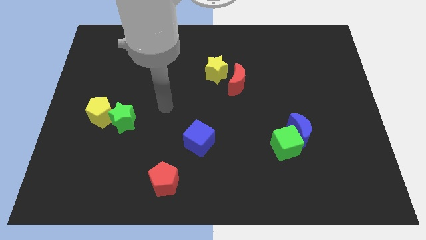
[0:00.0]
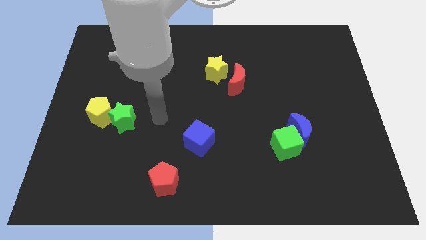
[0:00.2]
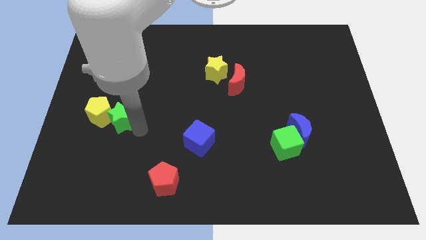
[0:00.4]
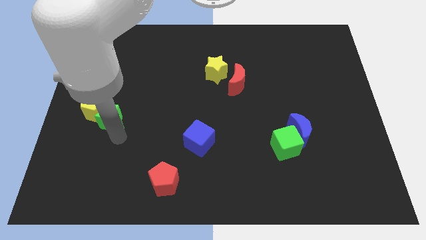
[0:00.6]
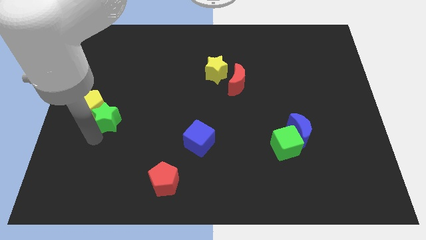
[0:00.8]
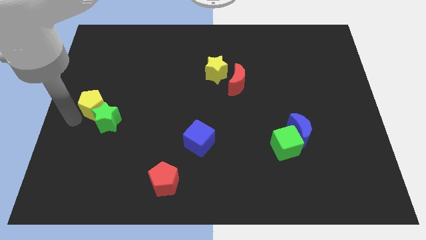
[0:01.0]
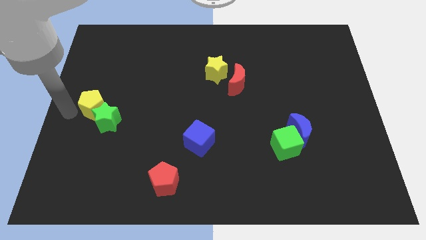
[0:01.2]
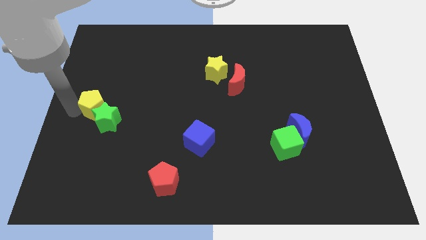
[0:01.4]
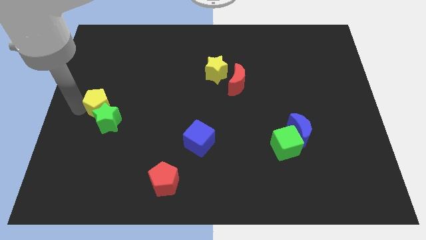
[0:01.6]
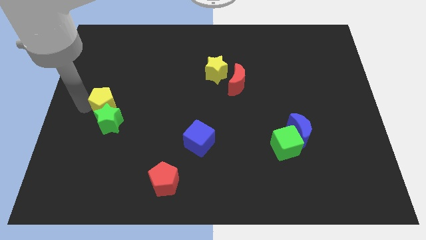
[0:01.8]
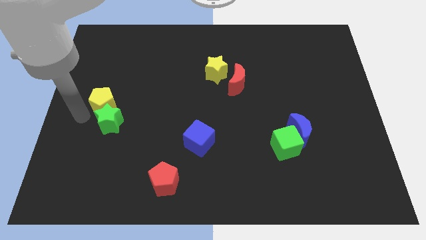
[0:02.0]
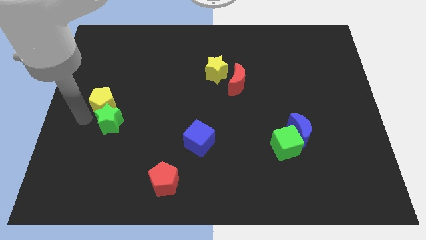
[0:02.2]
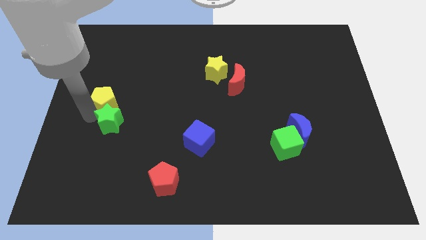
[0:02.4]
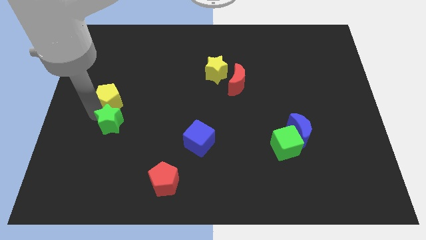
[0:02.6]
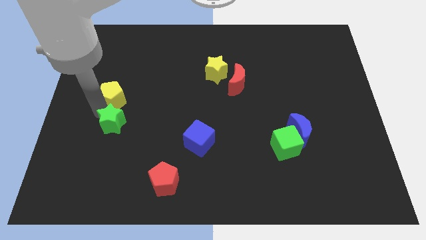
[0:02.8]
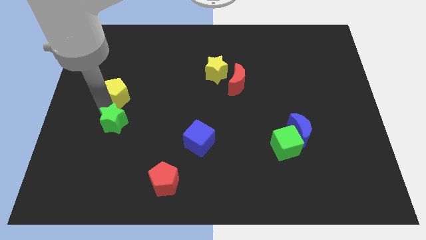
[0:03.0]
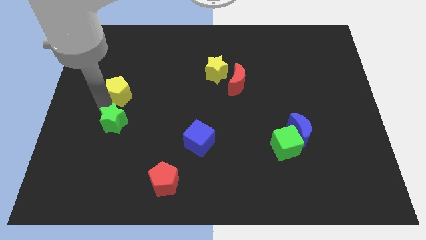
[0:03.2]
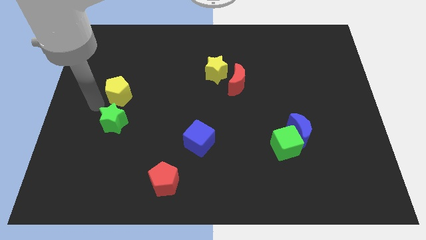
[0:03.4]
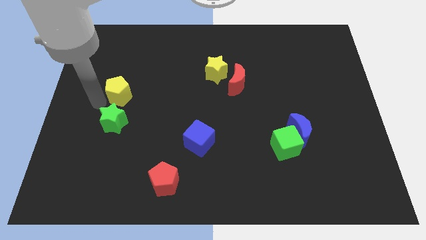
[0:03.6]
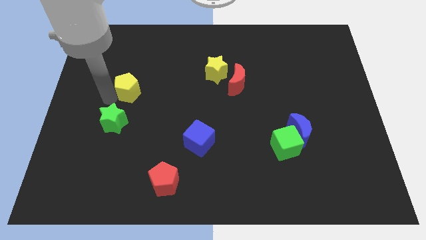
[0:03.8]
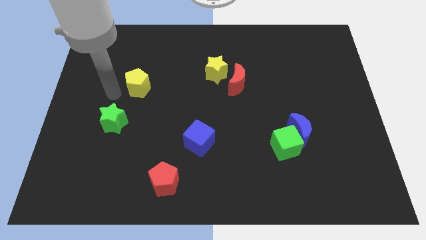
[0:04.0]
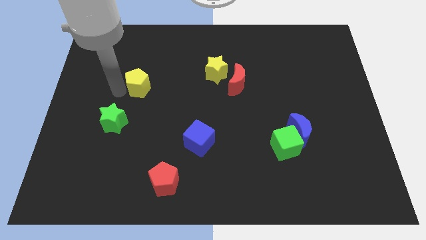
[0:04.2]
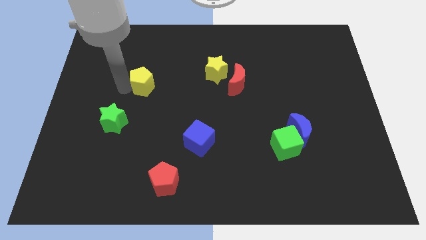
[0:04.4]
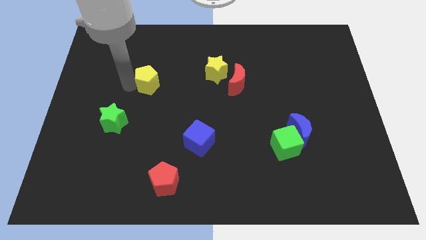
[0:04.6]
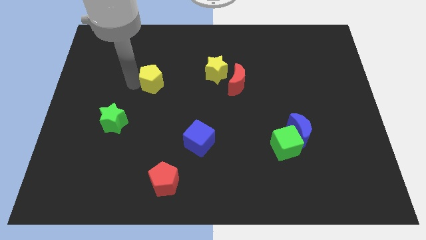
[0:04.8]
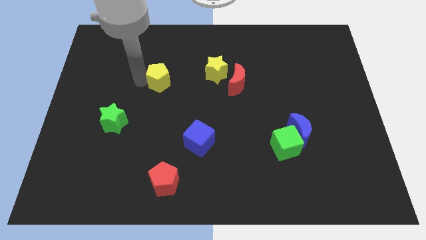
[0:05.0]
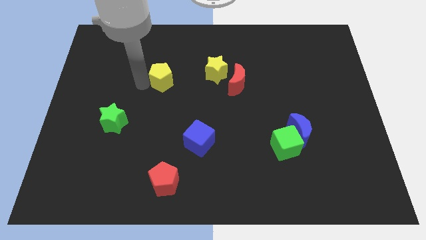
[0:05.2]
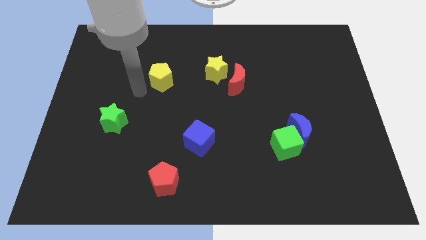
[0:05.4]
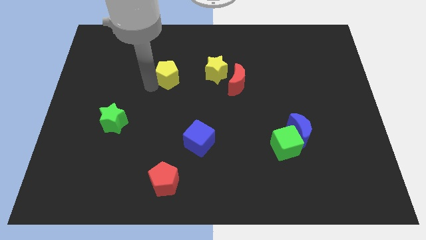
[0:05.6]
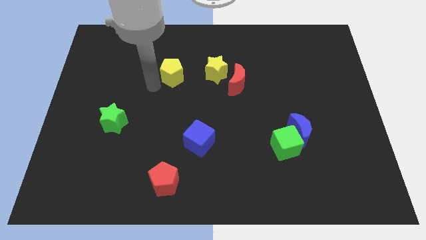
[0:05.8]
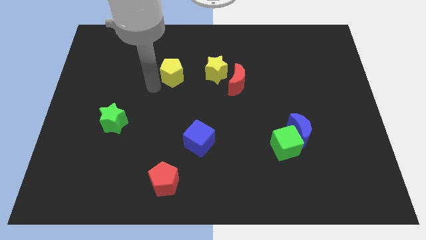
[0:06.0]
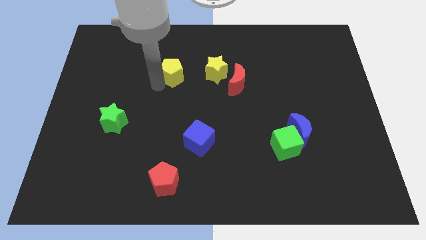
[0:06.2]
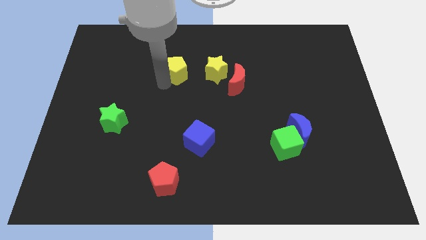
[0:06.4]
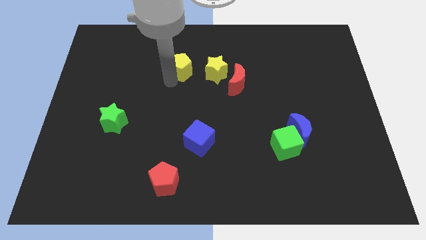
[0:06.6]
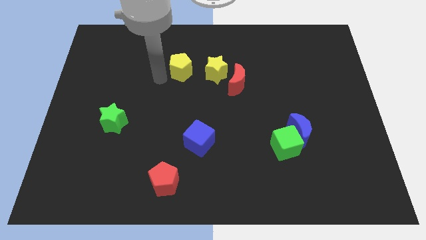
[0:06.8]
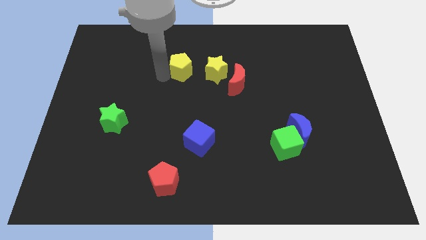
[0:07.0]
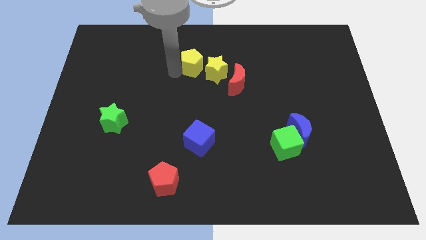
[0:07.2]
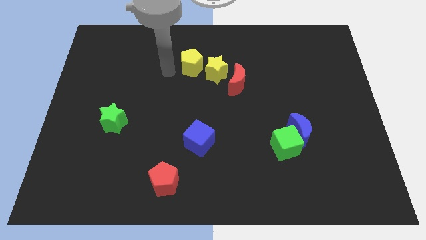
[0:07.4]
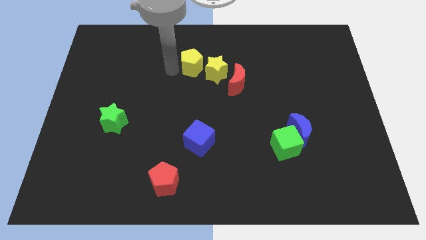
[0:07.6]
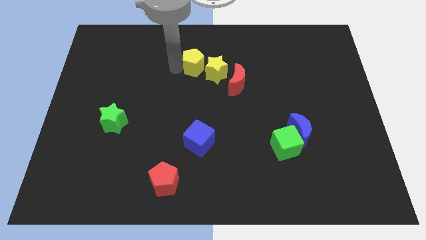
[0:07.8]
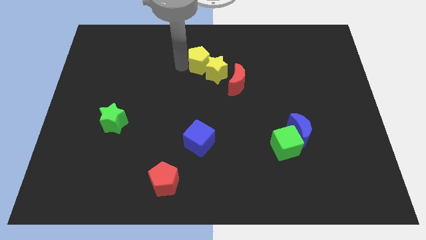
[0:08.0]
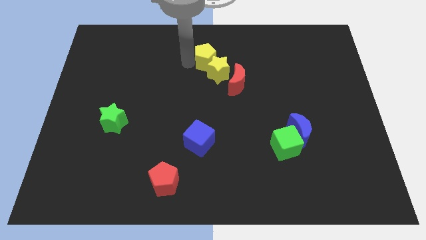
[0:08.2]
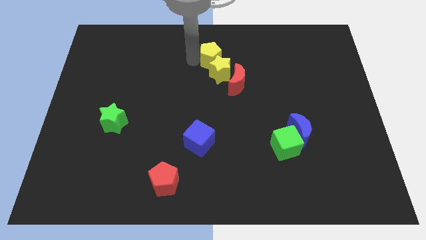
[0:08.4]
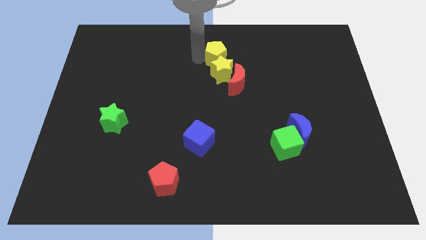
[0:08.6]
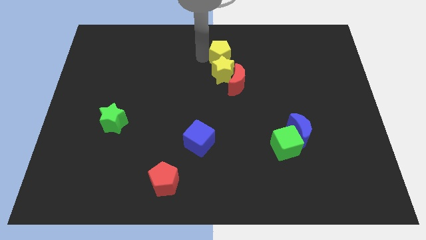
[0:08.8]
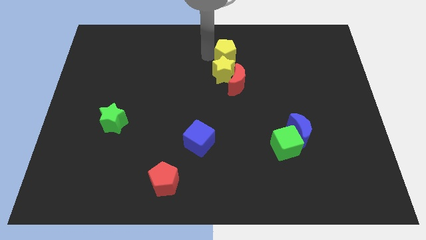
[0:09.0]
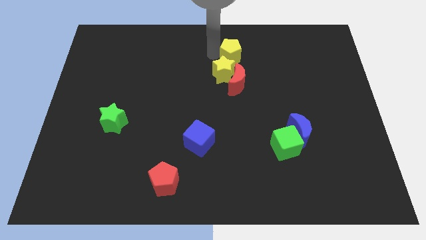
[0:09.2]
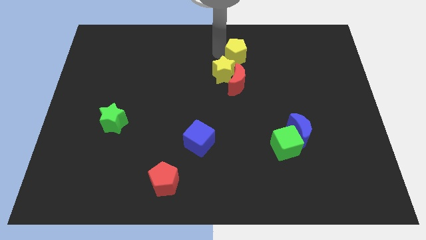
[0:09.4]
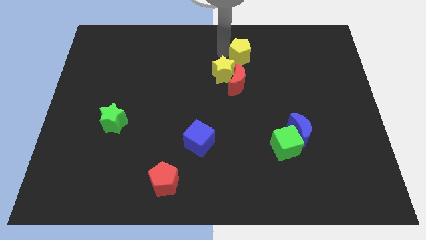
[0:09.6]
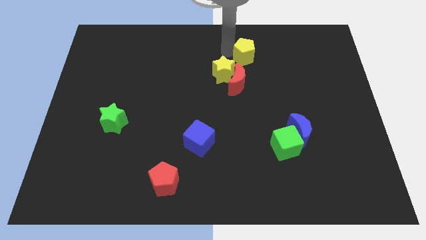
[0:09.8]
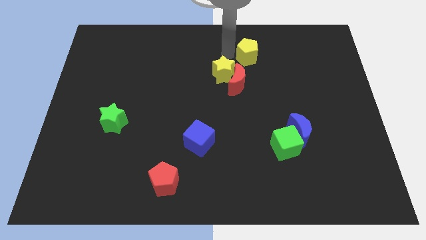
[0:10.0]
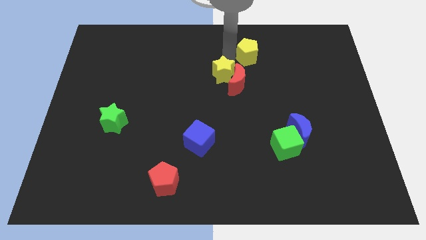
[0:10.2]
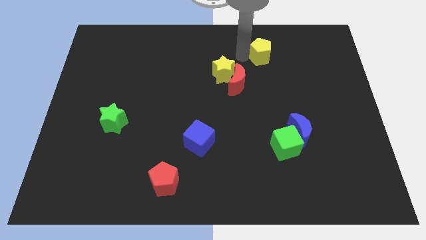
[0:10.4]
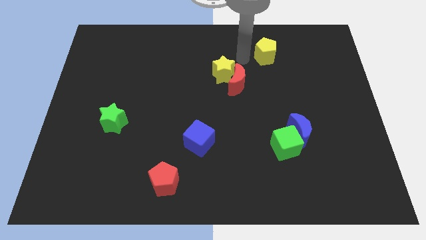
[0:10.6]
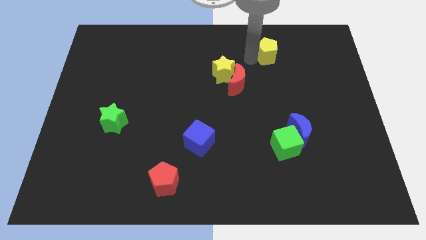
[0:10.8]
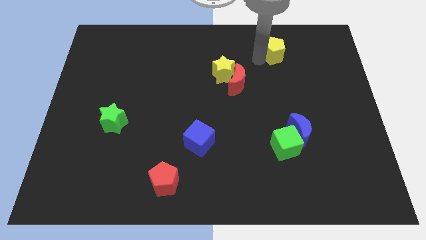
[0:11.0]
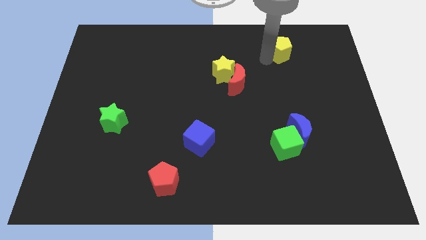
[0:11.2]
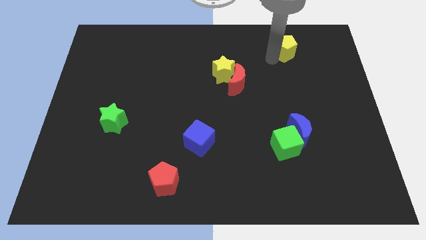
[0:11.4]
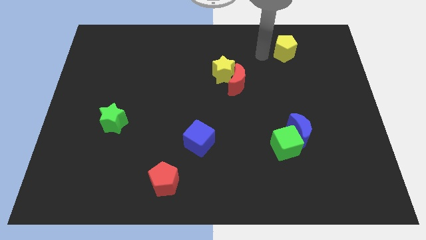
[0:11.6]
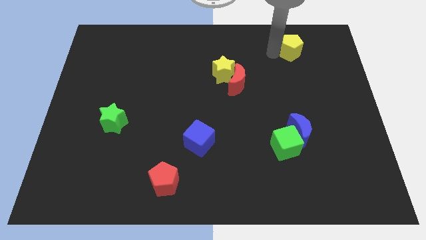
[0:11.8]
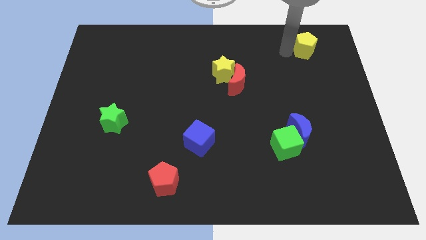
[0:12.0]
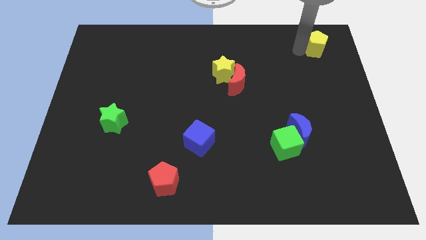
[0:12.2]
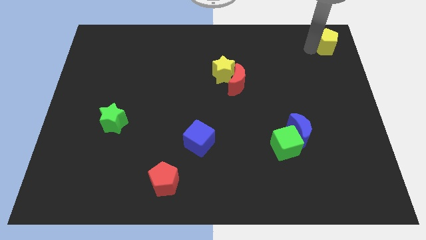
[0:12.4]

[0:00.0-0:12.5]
slide the yellow pentagon to the upper right corner

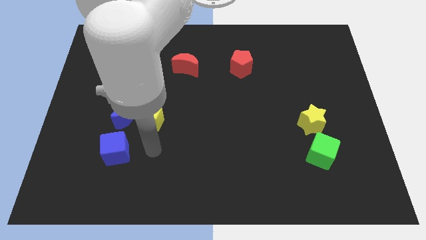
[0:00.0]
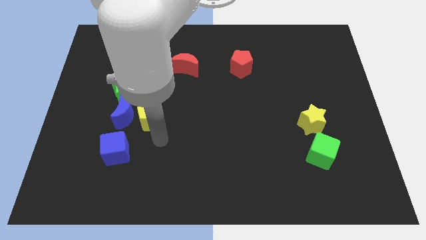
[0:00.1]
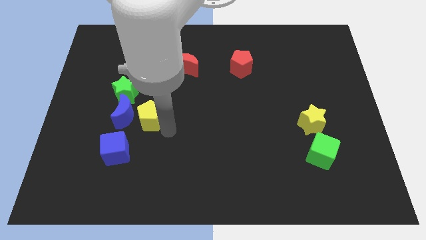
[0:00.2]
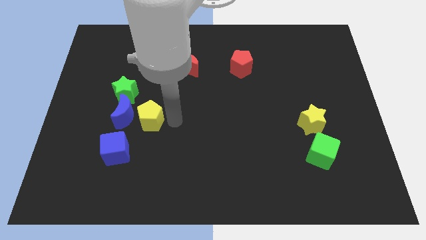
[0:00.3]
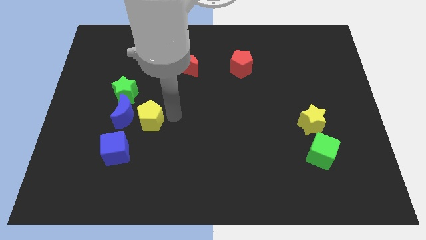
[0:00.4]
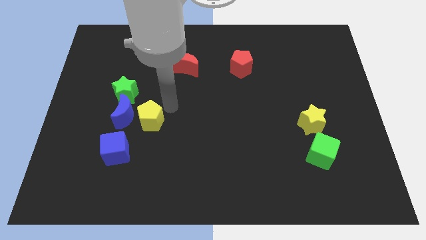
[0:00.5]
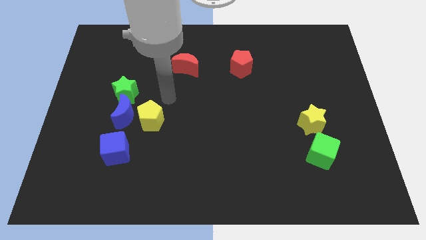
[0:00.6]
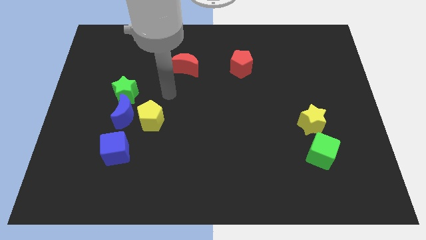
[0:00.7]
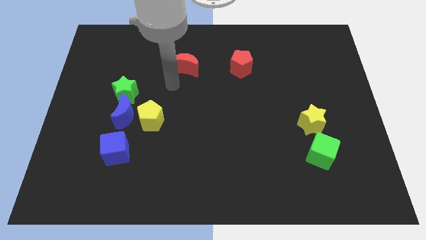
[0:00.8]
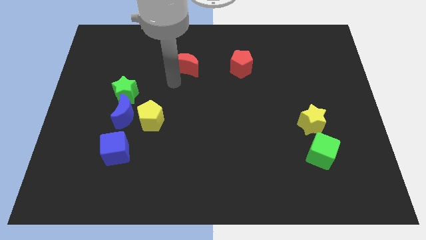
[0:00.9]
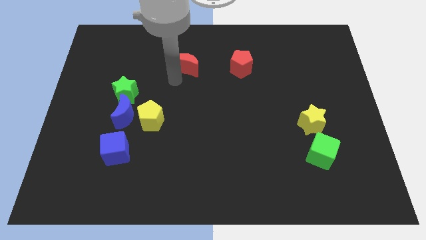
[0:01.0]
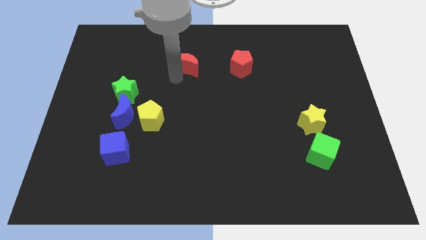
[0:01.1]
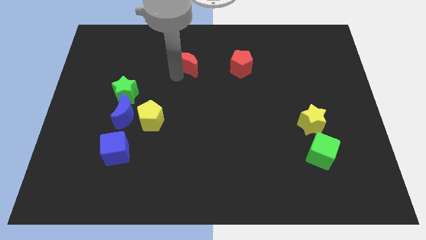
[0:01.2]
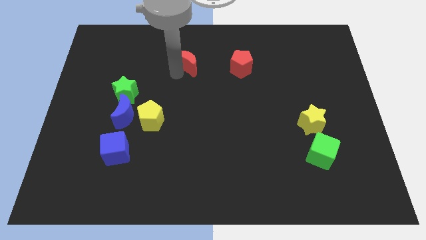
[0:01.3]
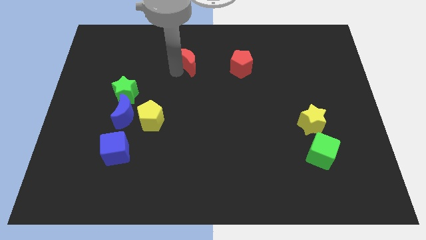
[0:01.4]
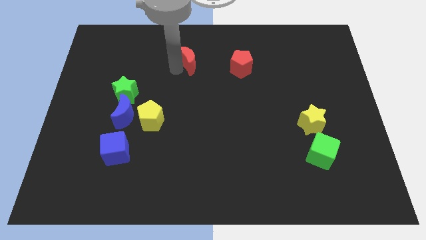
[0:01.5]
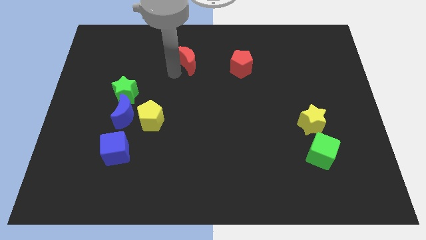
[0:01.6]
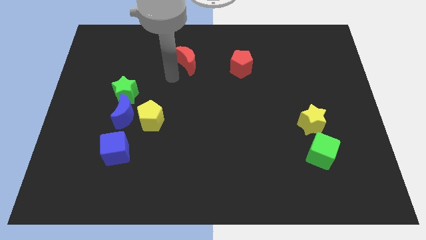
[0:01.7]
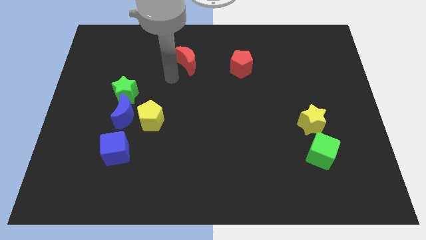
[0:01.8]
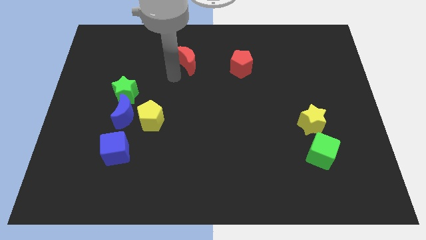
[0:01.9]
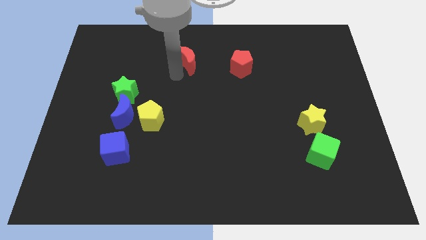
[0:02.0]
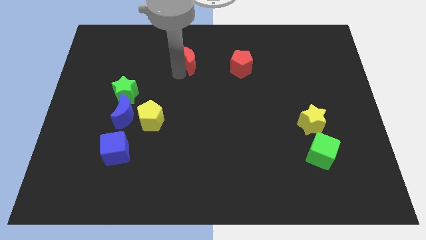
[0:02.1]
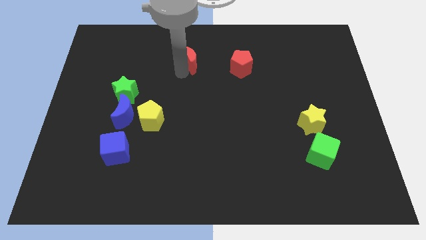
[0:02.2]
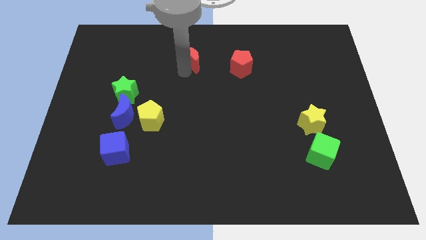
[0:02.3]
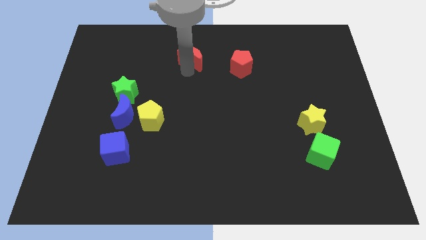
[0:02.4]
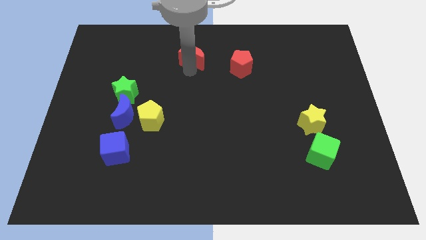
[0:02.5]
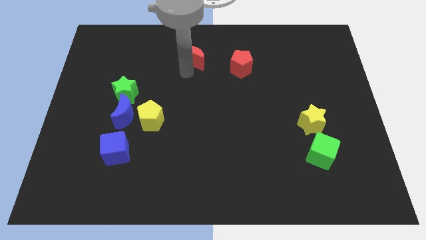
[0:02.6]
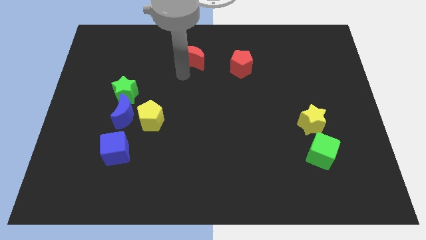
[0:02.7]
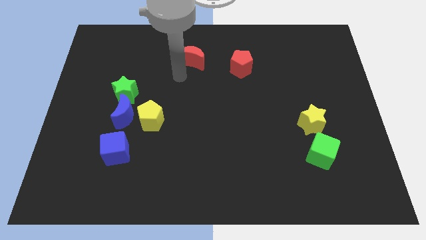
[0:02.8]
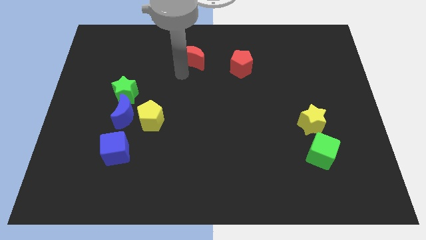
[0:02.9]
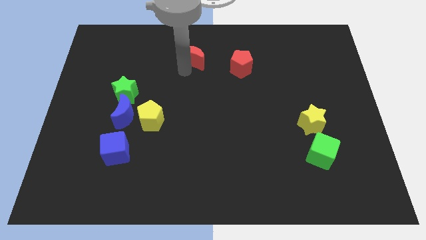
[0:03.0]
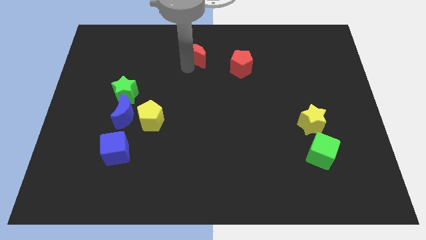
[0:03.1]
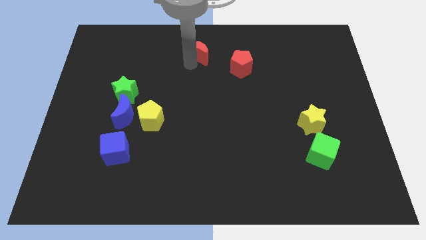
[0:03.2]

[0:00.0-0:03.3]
slide the red moon to the top side
